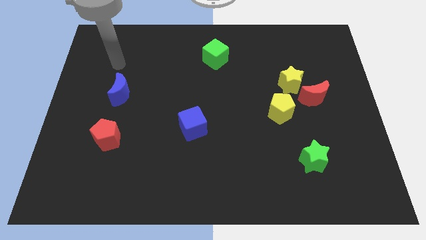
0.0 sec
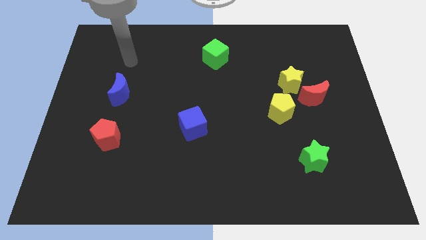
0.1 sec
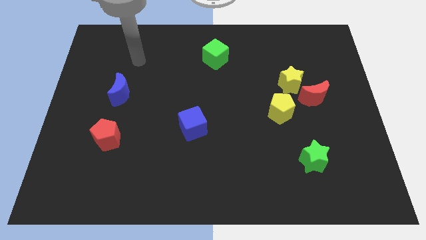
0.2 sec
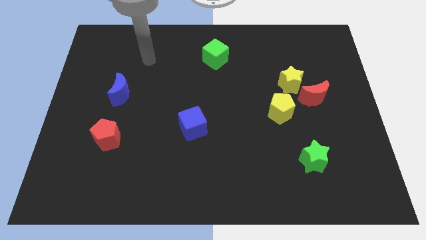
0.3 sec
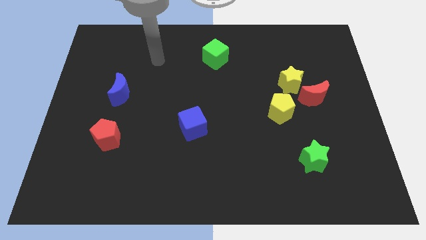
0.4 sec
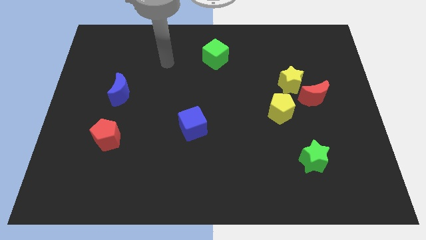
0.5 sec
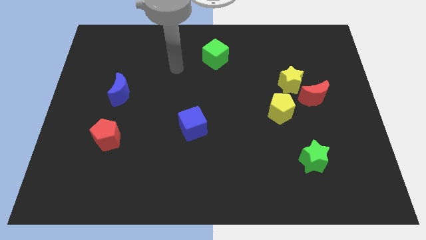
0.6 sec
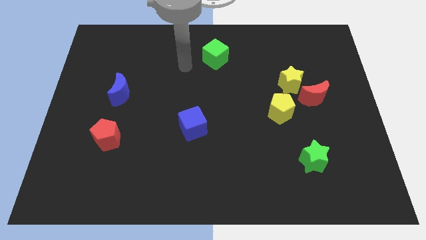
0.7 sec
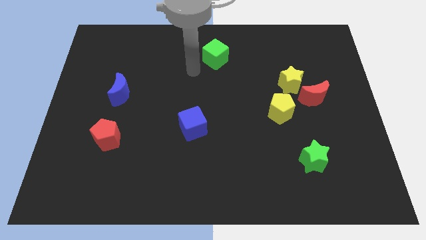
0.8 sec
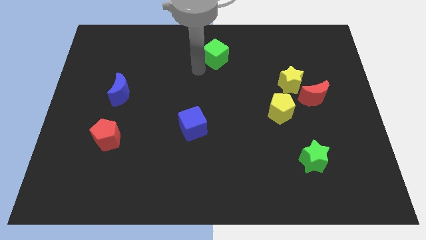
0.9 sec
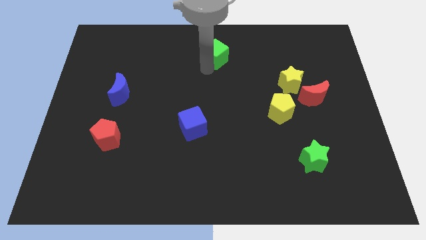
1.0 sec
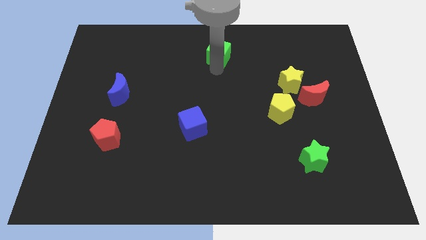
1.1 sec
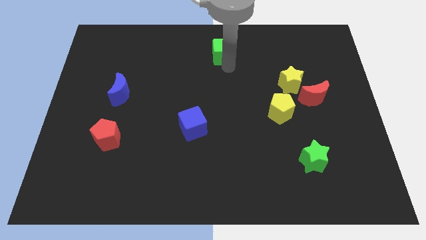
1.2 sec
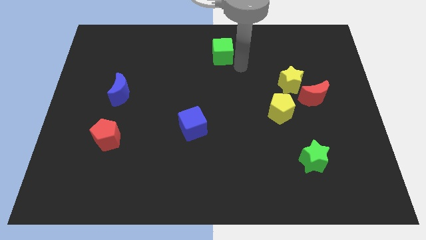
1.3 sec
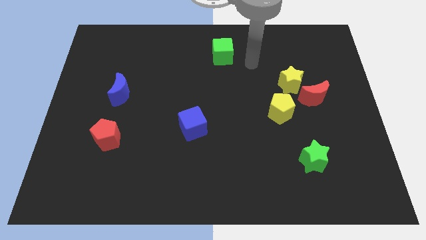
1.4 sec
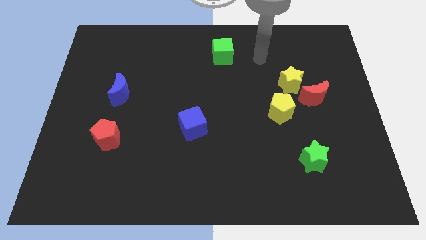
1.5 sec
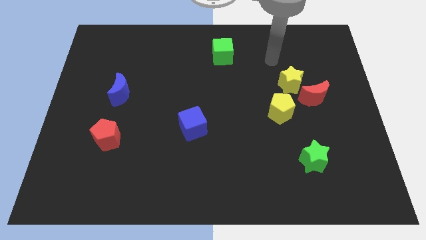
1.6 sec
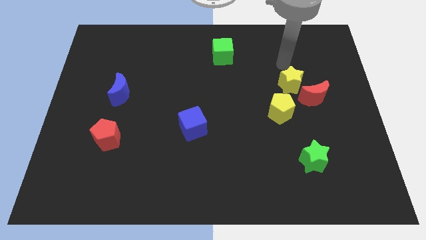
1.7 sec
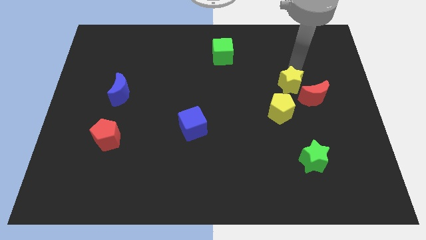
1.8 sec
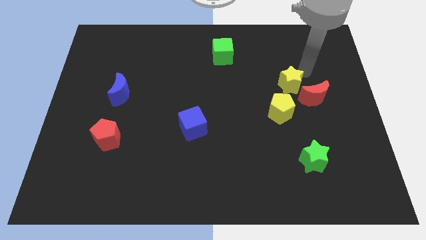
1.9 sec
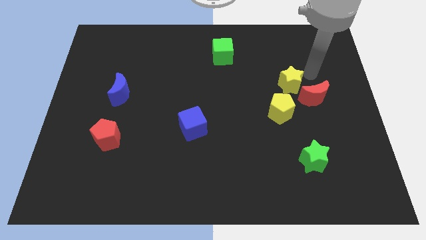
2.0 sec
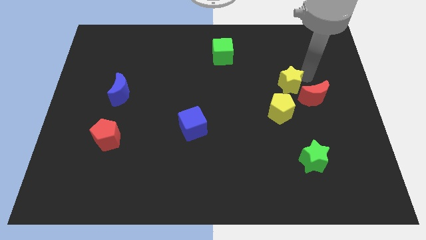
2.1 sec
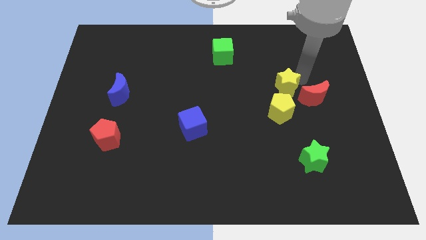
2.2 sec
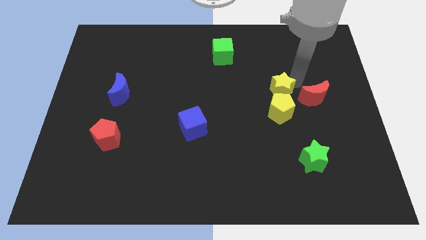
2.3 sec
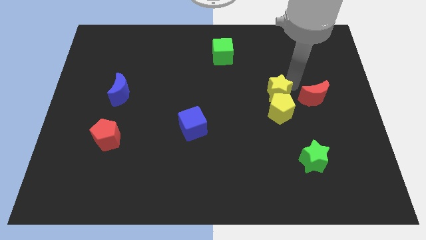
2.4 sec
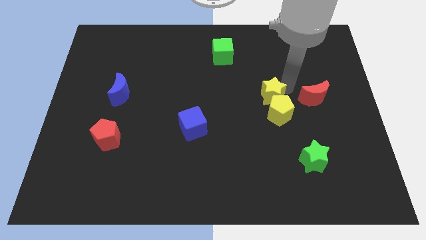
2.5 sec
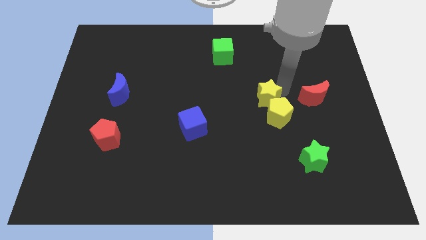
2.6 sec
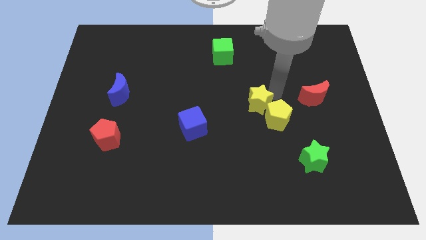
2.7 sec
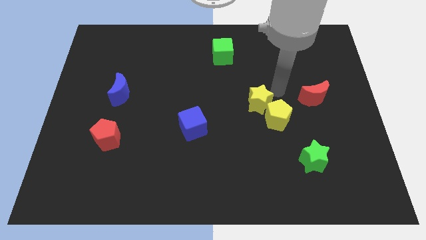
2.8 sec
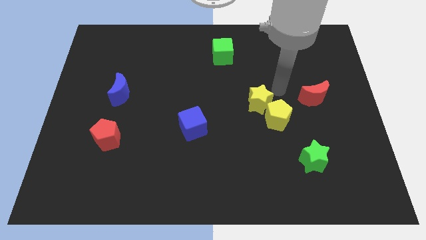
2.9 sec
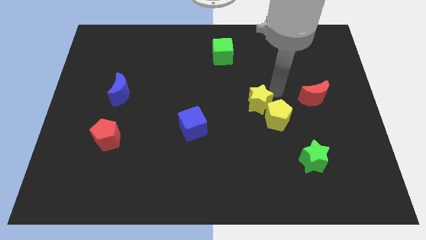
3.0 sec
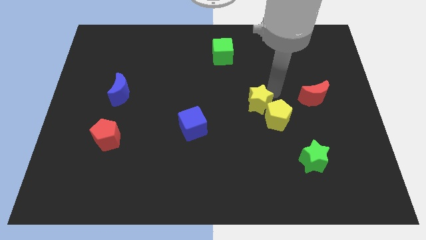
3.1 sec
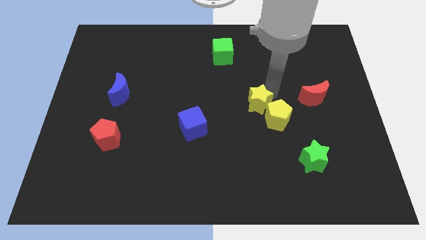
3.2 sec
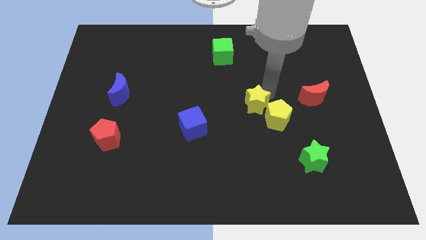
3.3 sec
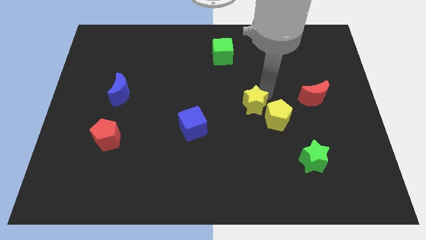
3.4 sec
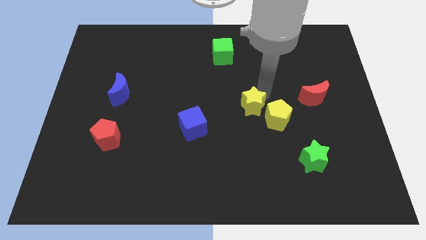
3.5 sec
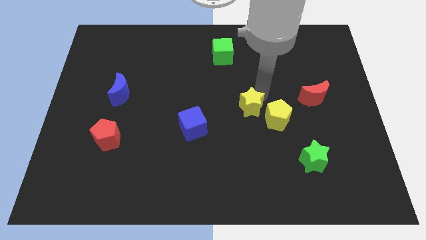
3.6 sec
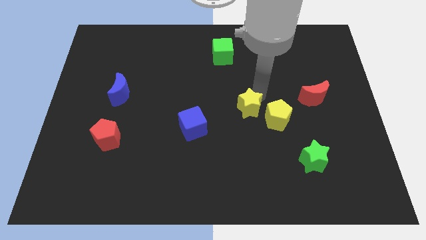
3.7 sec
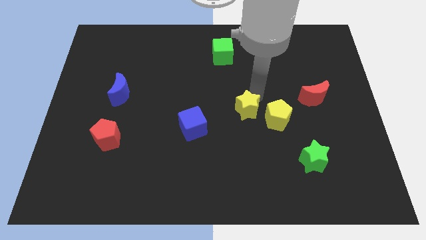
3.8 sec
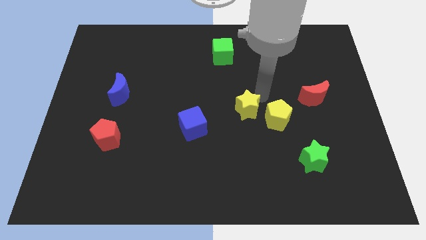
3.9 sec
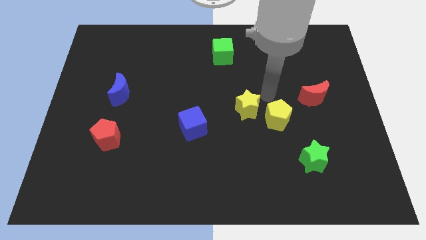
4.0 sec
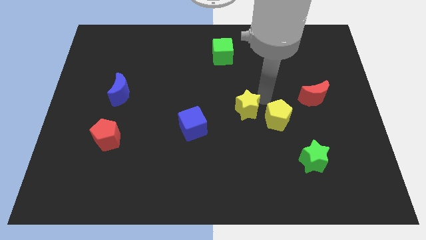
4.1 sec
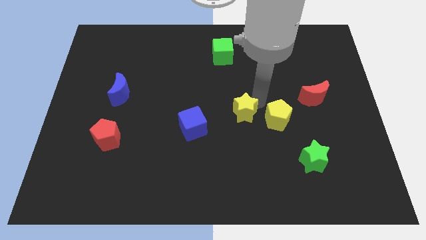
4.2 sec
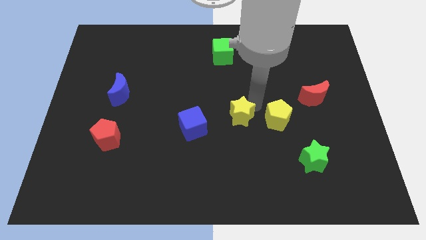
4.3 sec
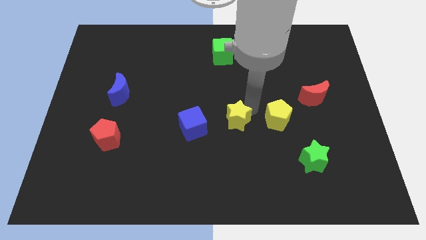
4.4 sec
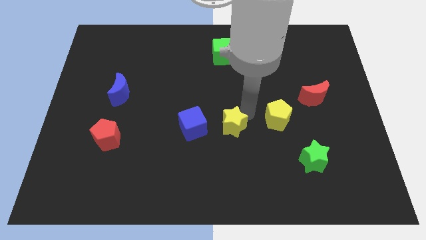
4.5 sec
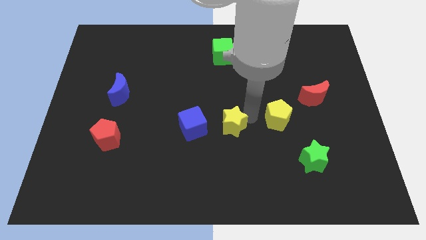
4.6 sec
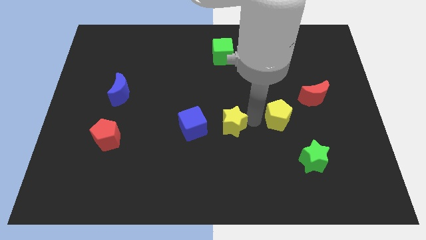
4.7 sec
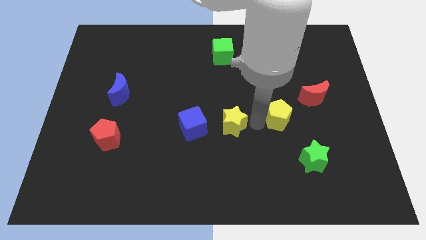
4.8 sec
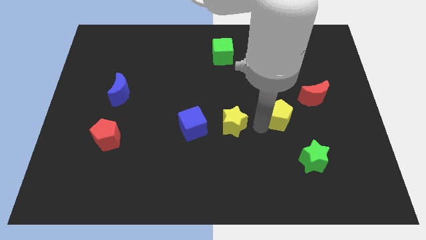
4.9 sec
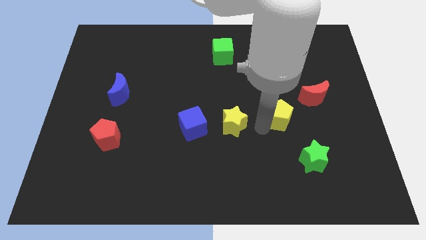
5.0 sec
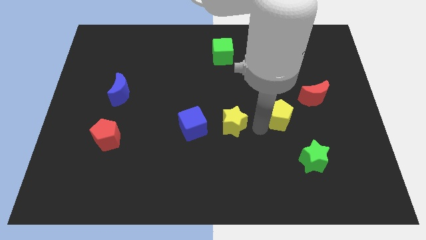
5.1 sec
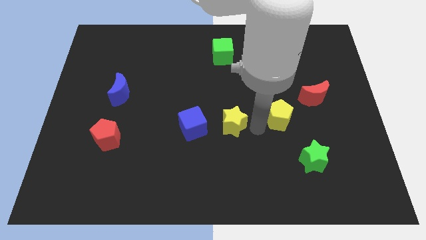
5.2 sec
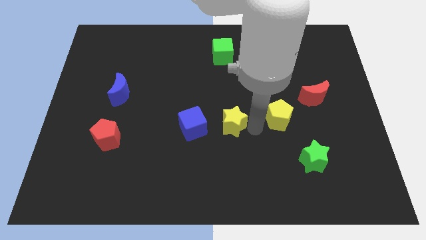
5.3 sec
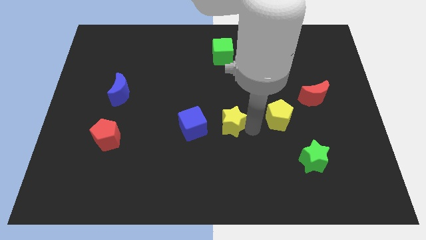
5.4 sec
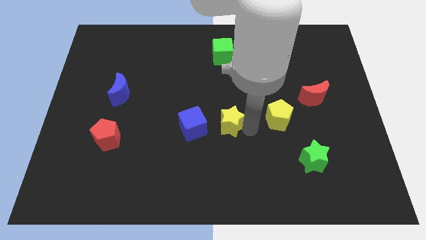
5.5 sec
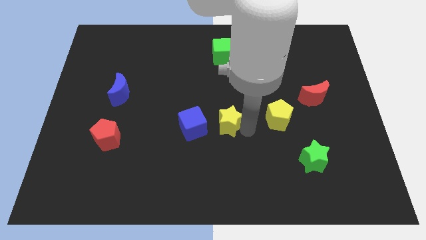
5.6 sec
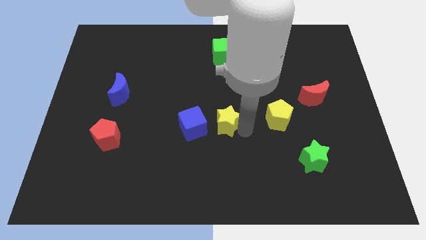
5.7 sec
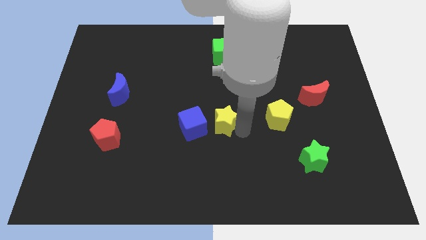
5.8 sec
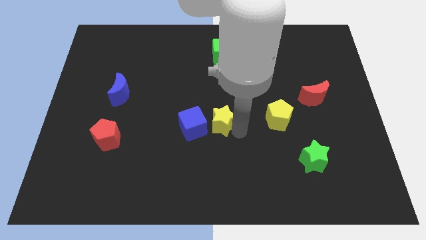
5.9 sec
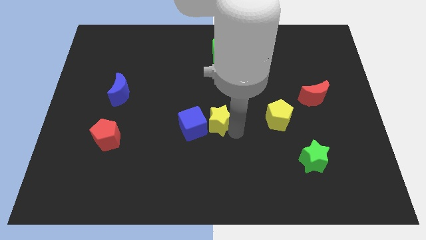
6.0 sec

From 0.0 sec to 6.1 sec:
push the yellow star to the blue cube

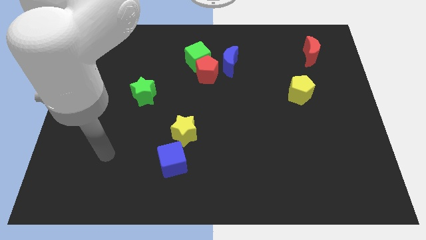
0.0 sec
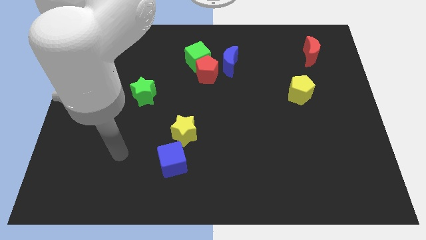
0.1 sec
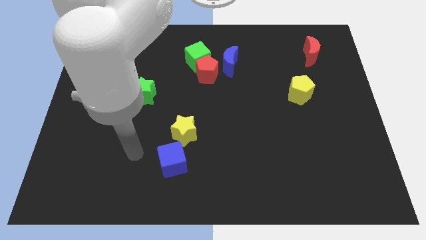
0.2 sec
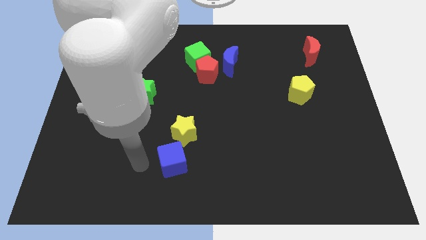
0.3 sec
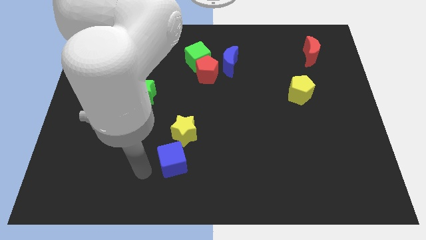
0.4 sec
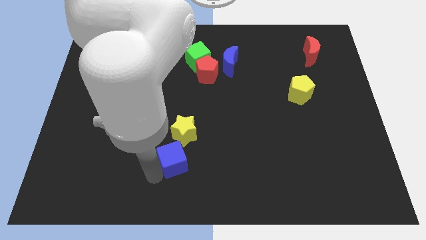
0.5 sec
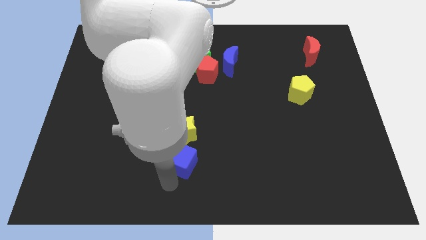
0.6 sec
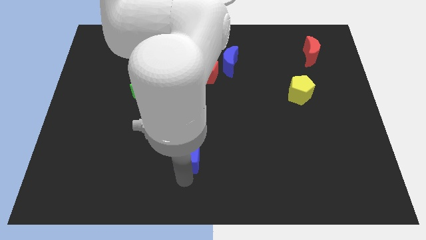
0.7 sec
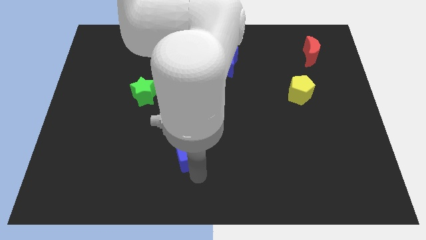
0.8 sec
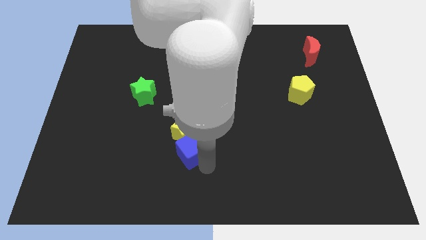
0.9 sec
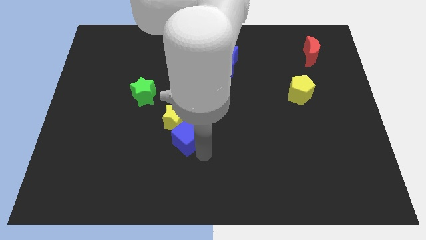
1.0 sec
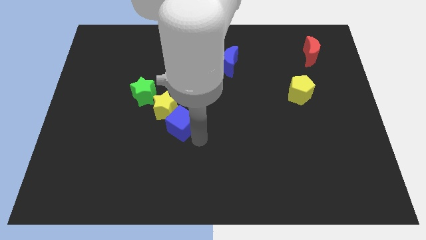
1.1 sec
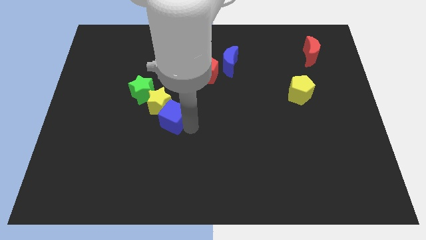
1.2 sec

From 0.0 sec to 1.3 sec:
slide the yellow star towards the green star
